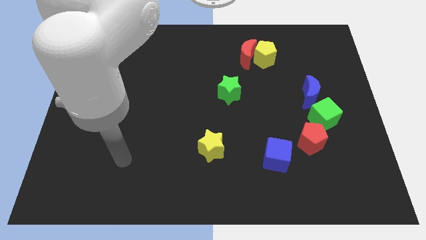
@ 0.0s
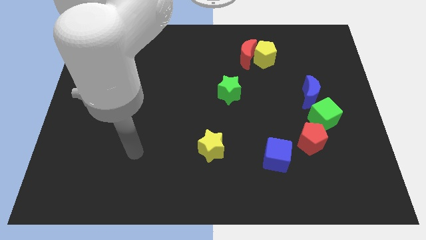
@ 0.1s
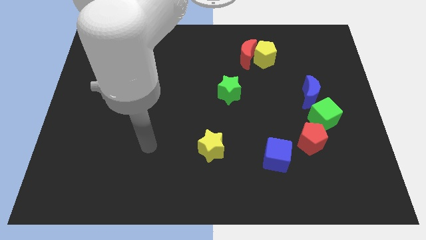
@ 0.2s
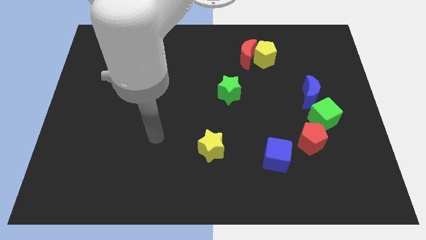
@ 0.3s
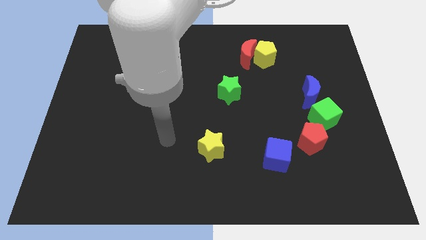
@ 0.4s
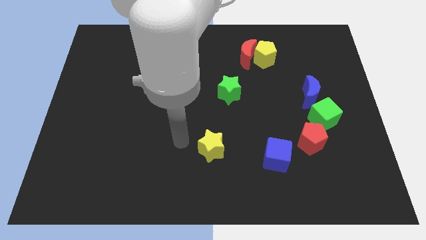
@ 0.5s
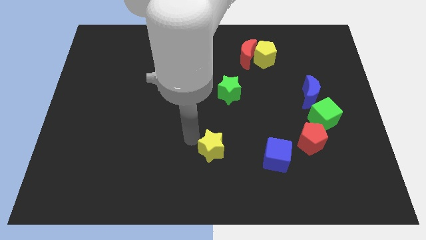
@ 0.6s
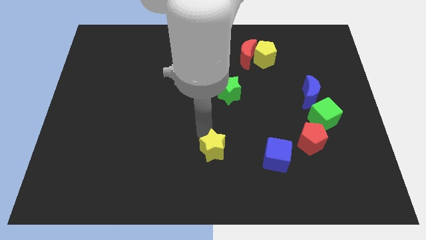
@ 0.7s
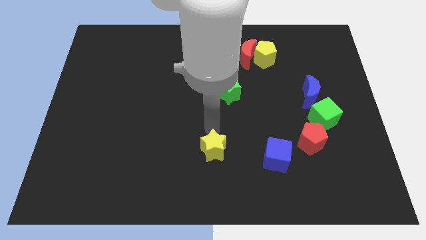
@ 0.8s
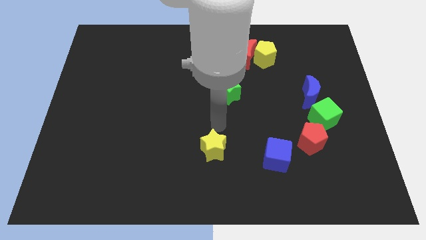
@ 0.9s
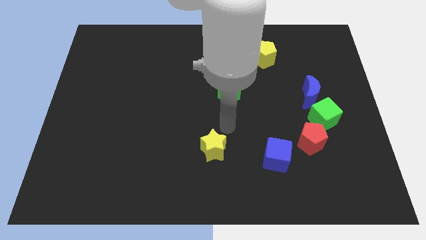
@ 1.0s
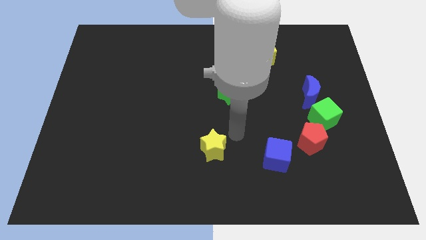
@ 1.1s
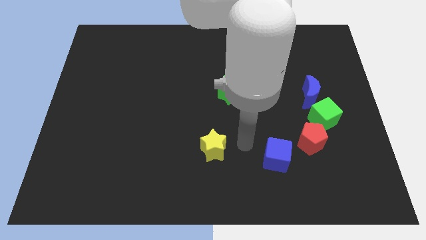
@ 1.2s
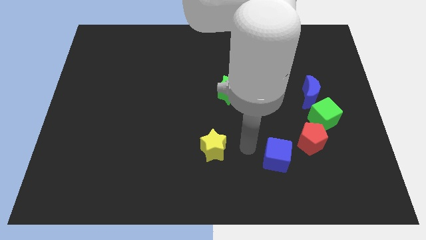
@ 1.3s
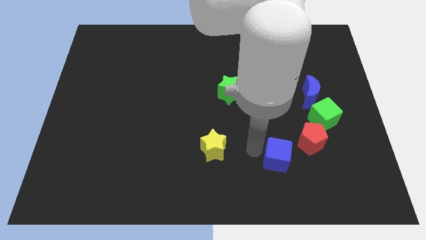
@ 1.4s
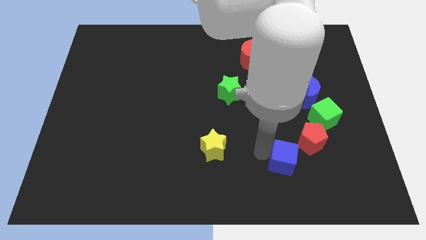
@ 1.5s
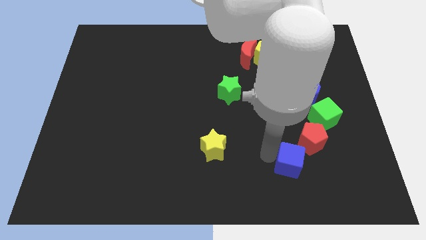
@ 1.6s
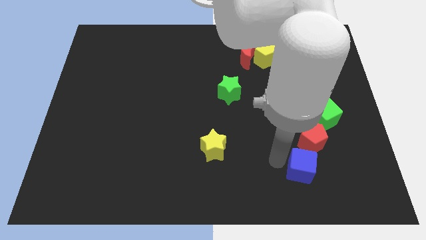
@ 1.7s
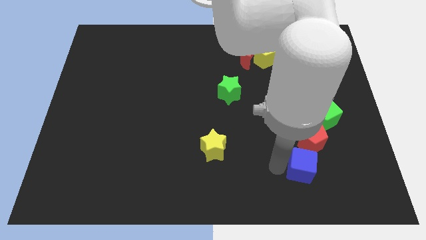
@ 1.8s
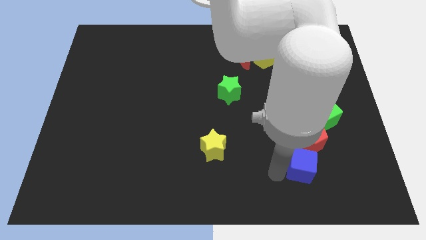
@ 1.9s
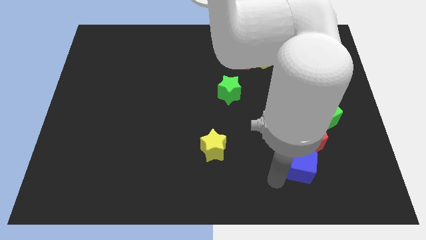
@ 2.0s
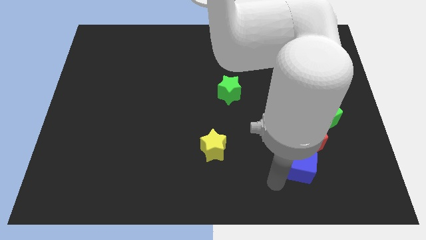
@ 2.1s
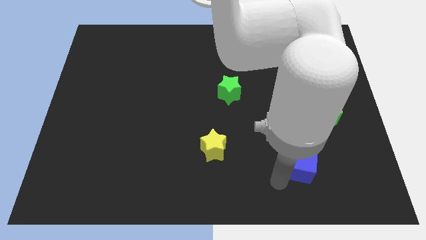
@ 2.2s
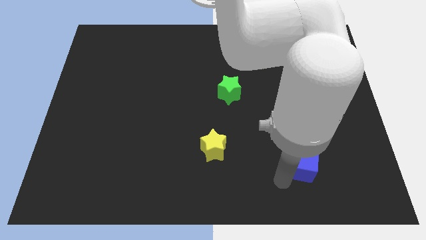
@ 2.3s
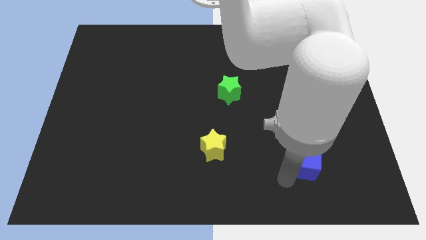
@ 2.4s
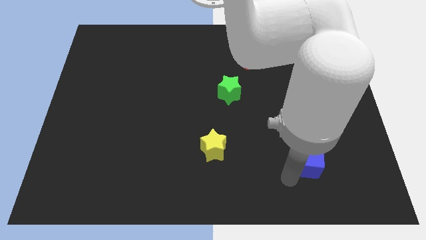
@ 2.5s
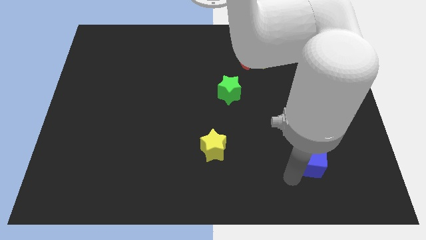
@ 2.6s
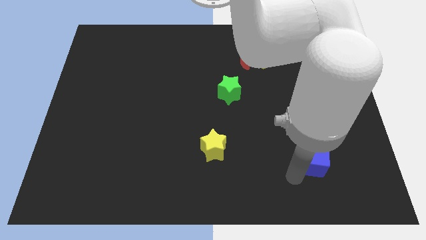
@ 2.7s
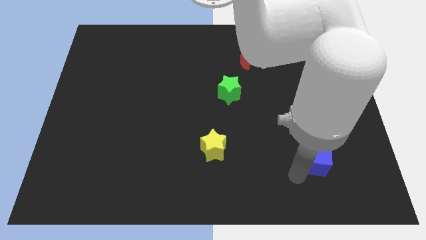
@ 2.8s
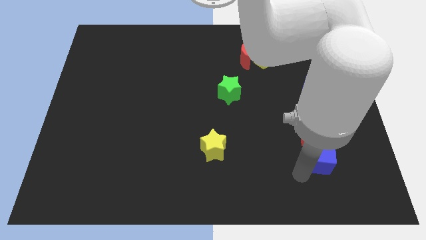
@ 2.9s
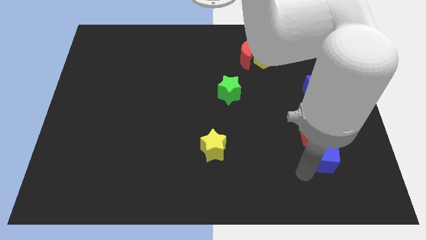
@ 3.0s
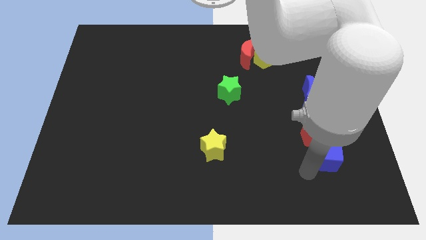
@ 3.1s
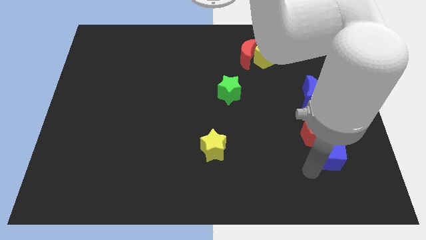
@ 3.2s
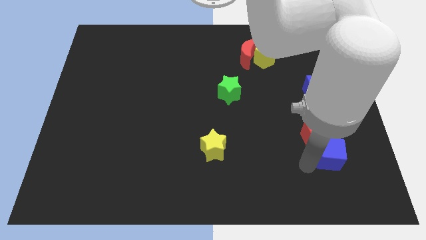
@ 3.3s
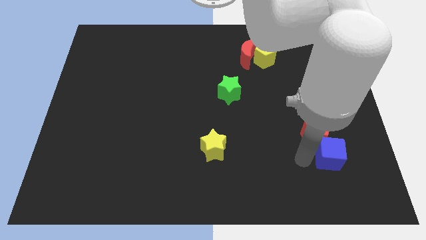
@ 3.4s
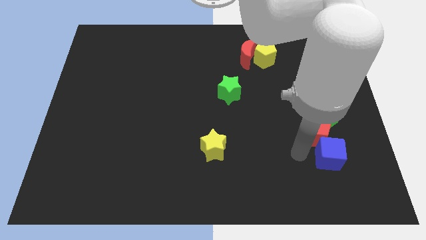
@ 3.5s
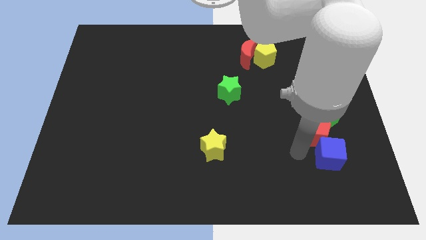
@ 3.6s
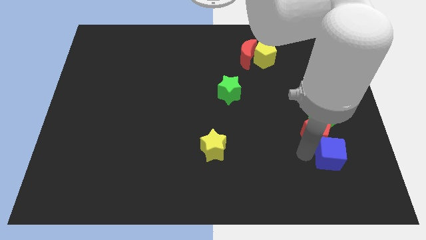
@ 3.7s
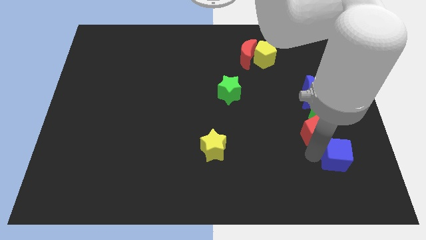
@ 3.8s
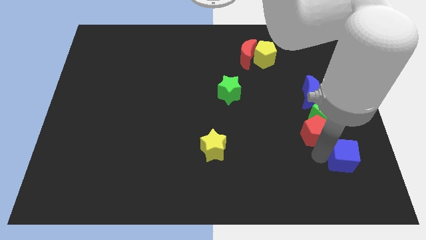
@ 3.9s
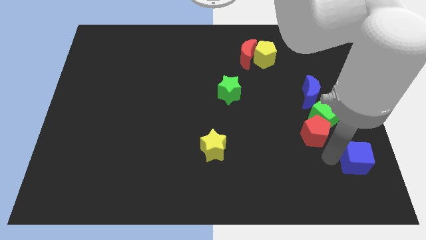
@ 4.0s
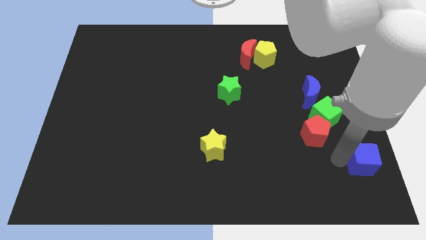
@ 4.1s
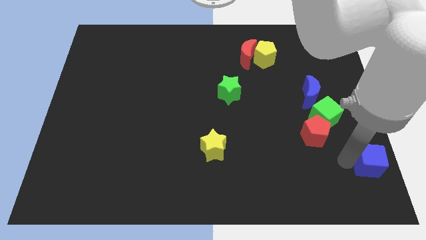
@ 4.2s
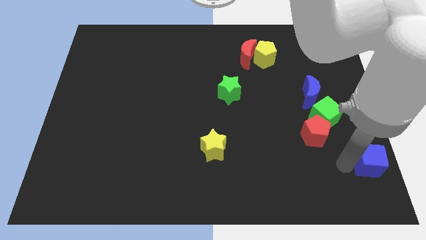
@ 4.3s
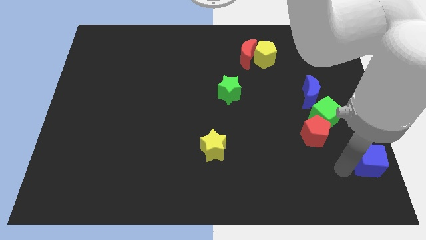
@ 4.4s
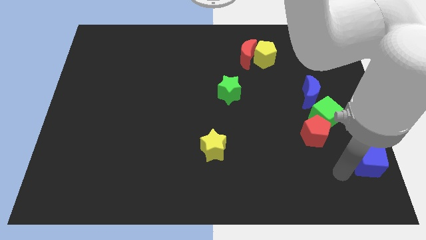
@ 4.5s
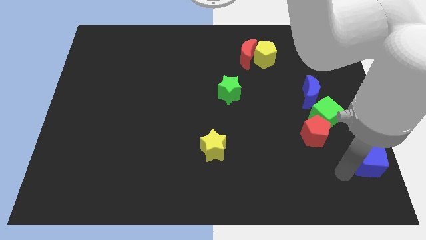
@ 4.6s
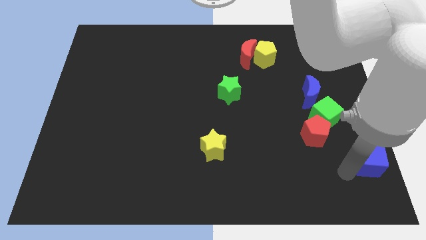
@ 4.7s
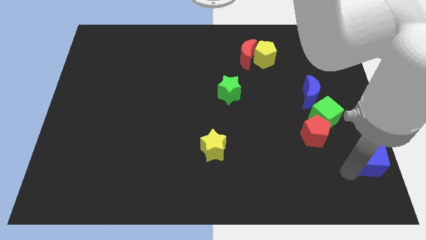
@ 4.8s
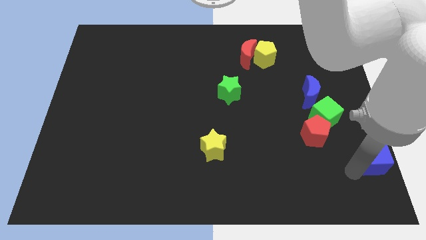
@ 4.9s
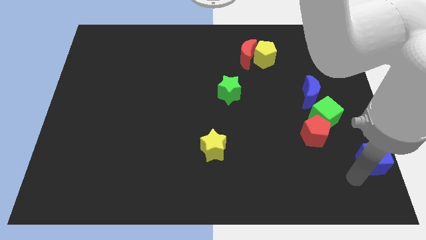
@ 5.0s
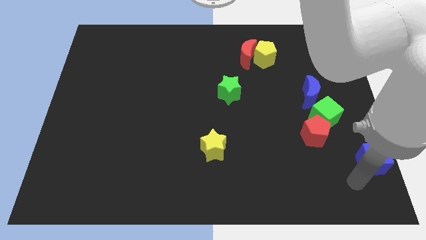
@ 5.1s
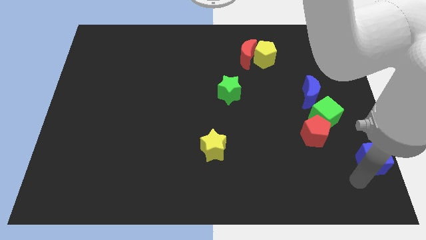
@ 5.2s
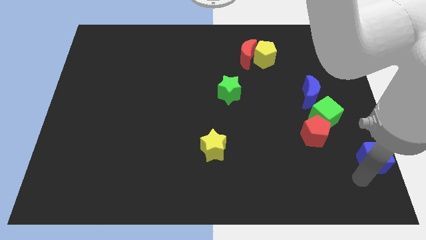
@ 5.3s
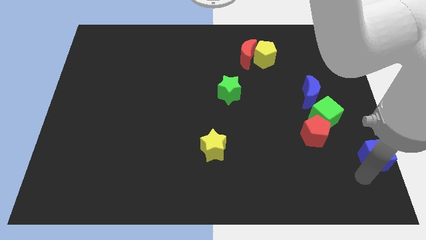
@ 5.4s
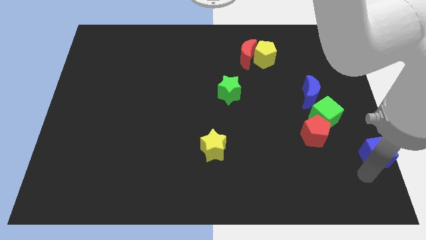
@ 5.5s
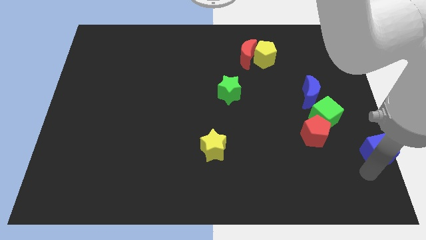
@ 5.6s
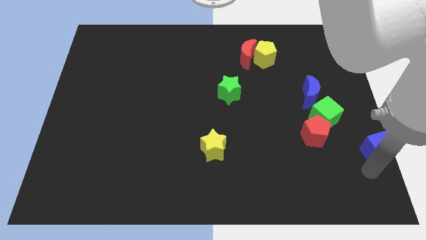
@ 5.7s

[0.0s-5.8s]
put the blue cube to the right side of the board
